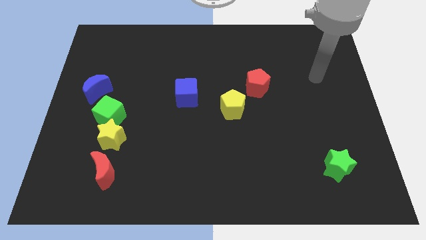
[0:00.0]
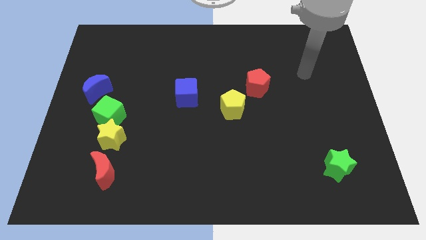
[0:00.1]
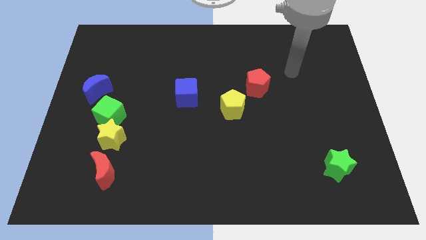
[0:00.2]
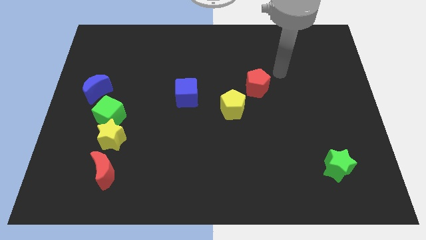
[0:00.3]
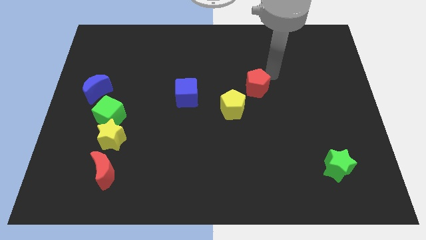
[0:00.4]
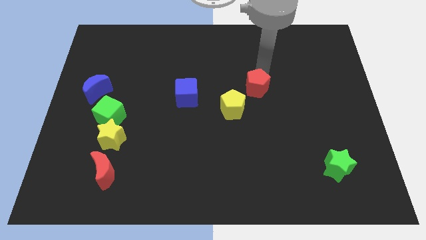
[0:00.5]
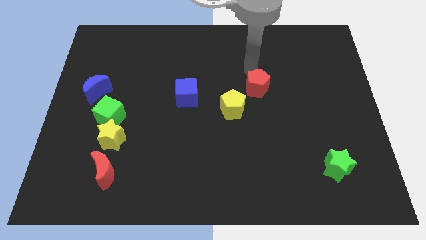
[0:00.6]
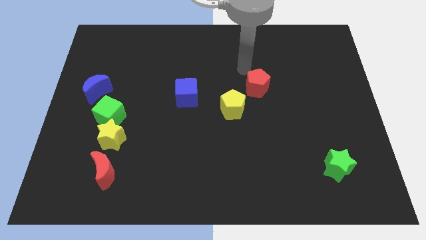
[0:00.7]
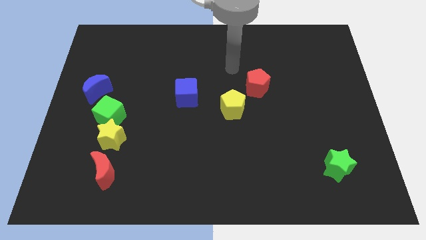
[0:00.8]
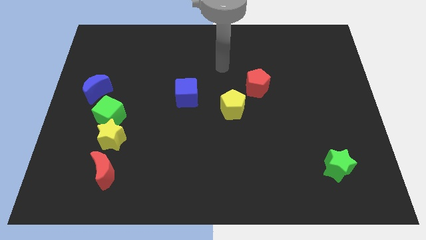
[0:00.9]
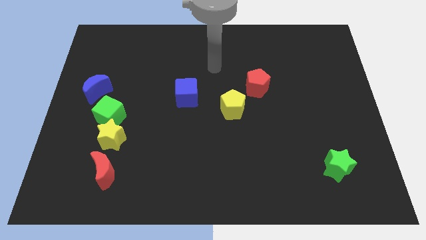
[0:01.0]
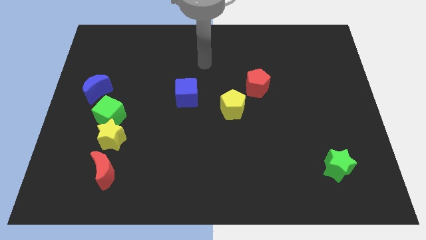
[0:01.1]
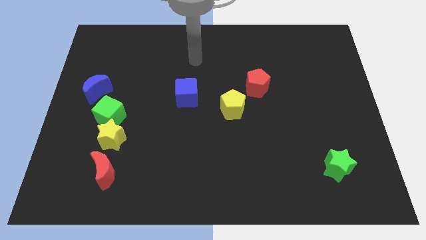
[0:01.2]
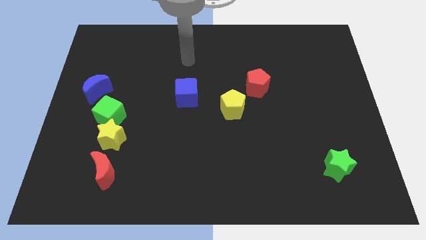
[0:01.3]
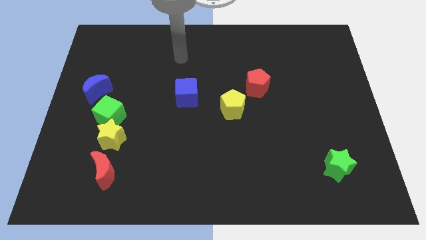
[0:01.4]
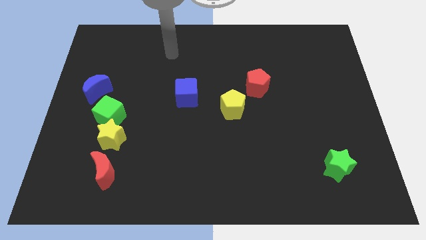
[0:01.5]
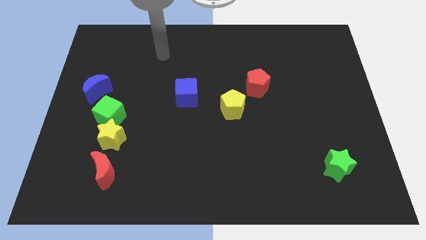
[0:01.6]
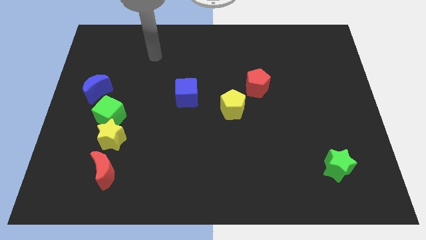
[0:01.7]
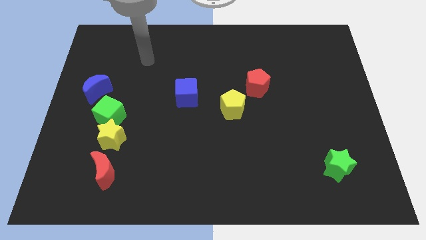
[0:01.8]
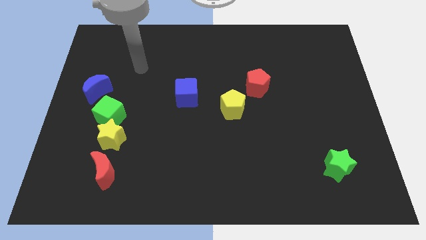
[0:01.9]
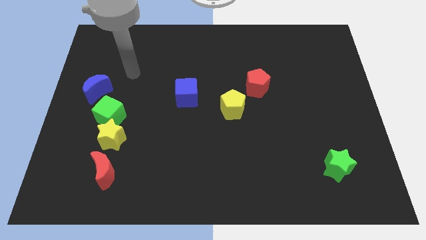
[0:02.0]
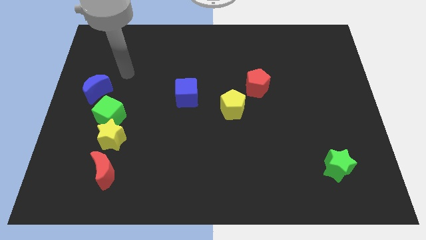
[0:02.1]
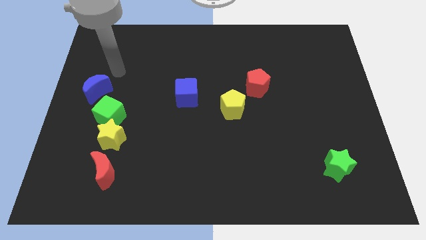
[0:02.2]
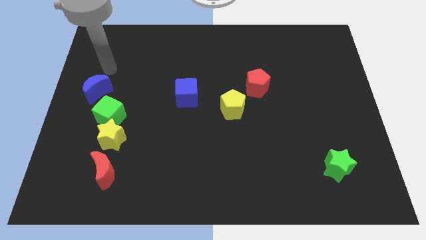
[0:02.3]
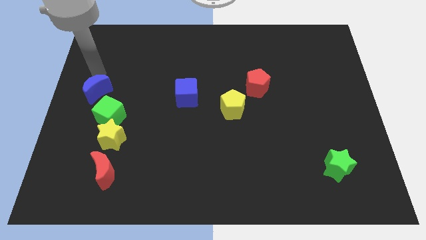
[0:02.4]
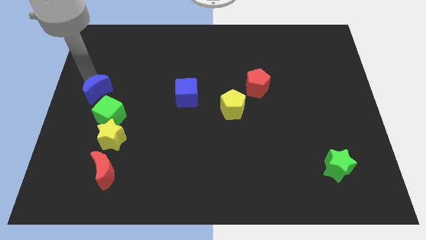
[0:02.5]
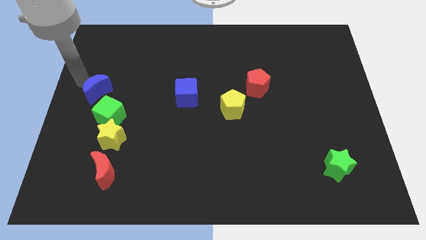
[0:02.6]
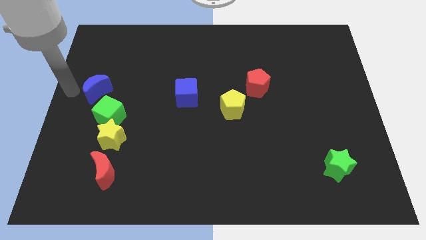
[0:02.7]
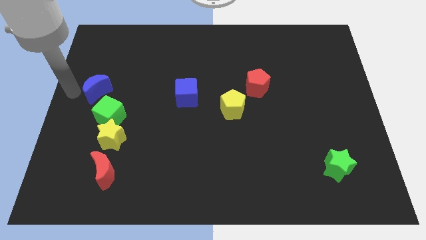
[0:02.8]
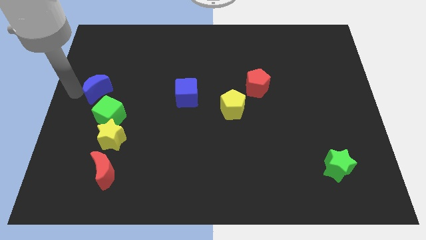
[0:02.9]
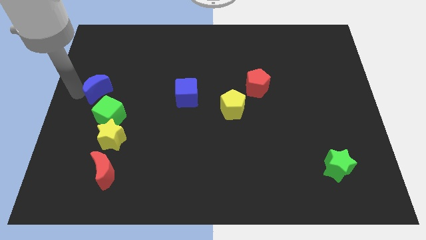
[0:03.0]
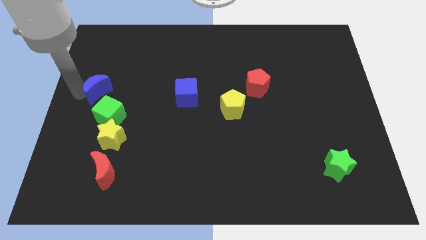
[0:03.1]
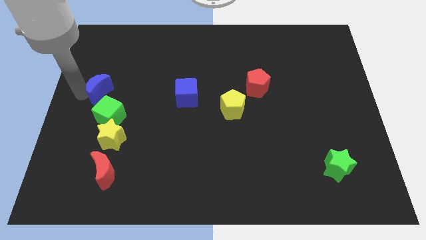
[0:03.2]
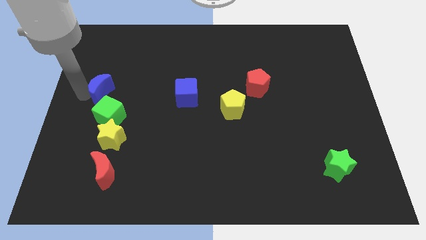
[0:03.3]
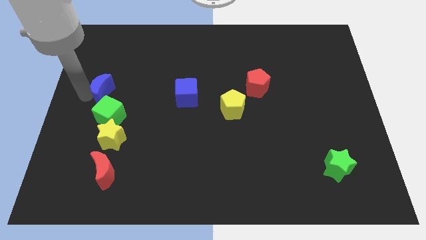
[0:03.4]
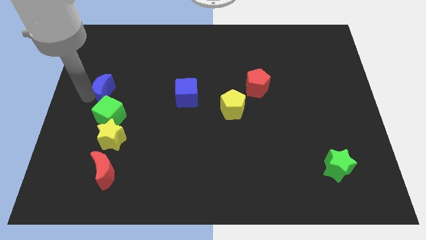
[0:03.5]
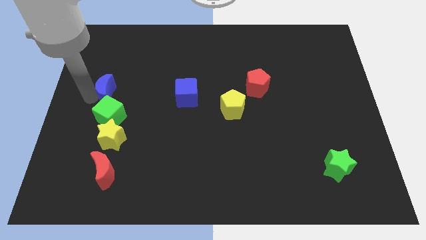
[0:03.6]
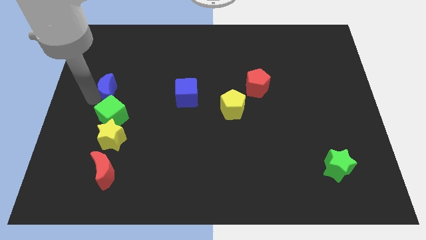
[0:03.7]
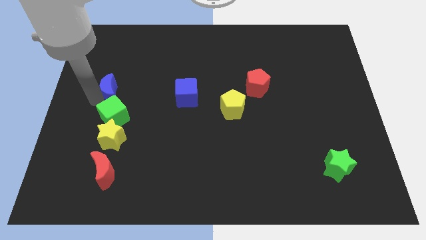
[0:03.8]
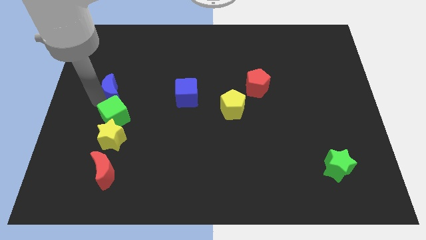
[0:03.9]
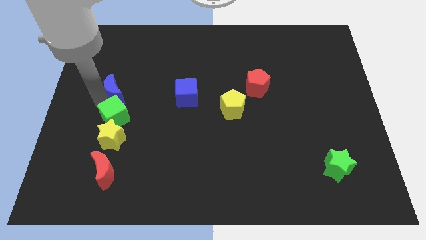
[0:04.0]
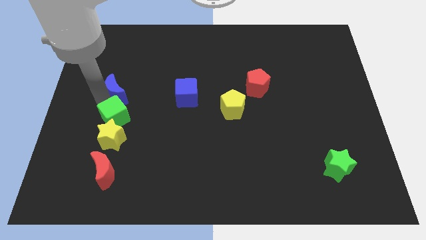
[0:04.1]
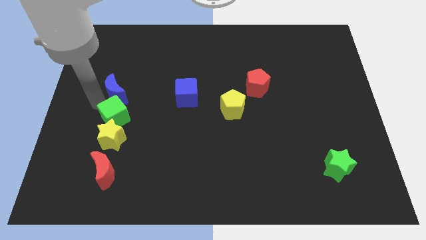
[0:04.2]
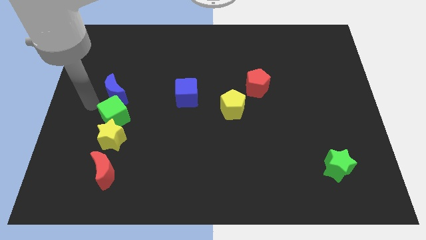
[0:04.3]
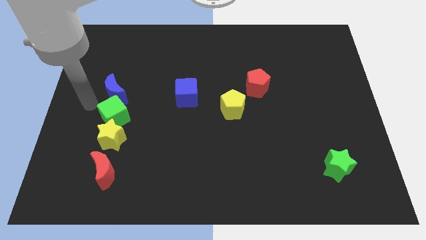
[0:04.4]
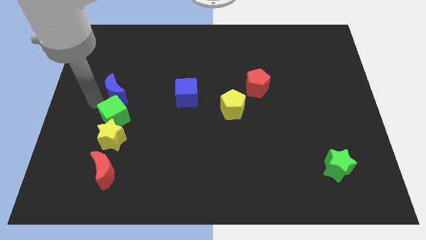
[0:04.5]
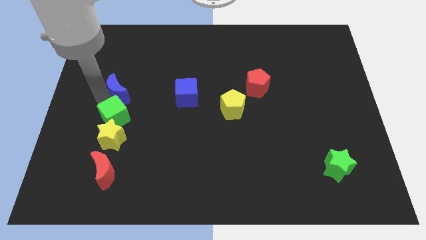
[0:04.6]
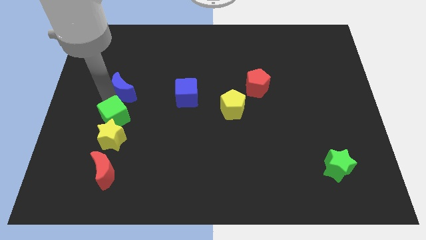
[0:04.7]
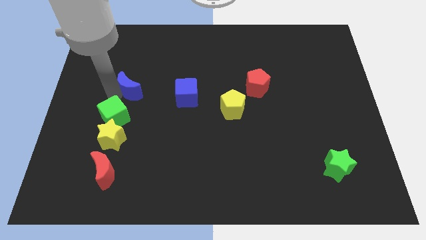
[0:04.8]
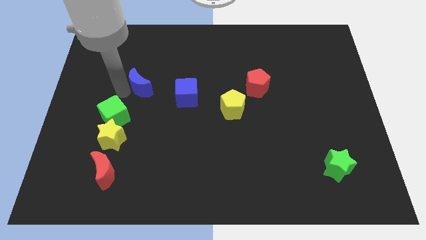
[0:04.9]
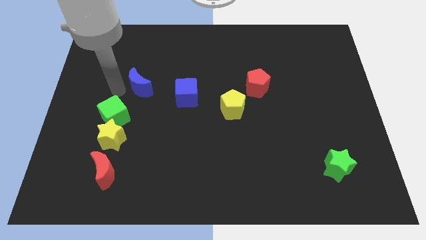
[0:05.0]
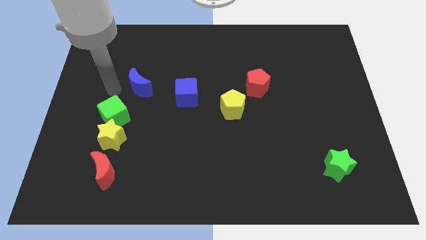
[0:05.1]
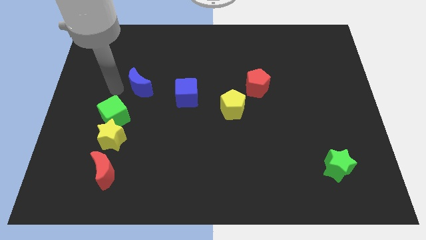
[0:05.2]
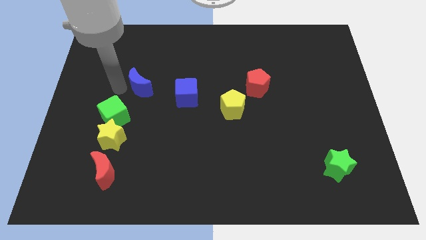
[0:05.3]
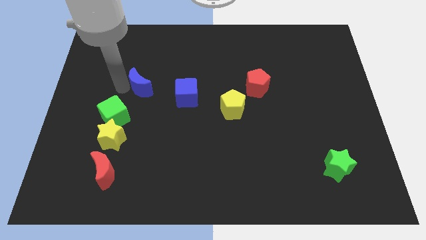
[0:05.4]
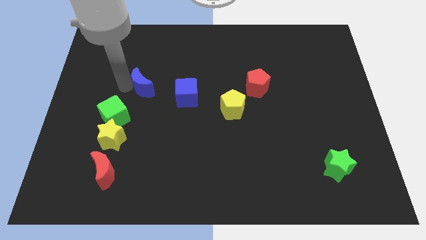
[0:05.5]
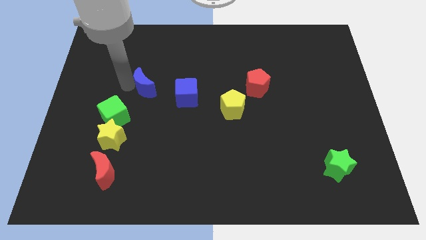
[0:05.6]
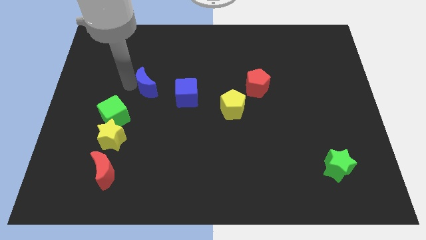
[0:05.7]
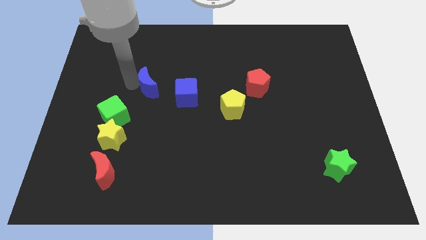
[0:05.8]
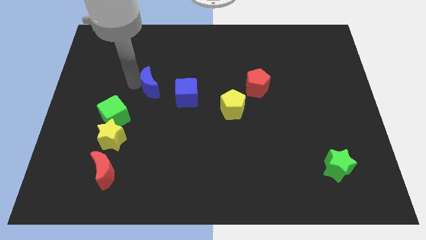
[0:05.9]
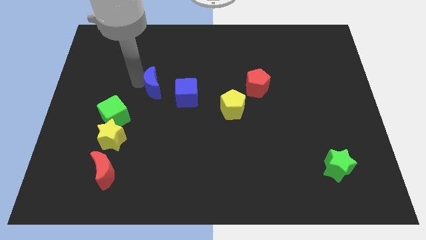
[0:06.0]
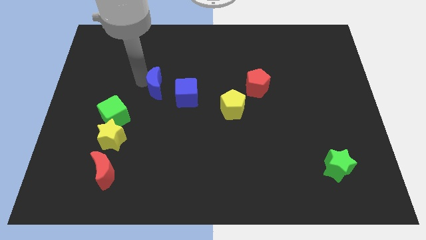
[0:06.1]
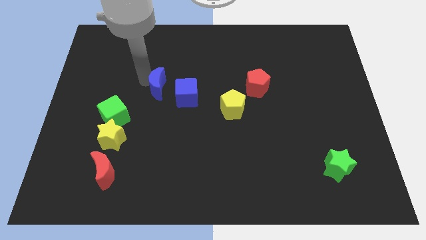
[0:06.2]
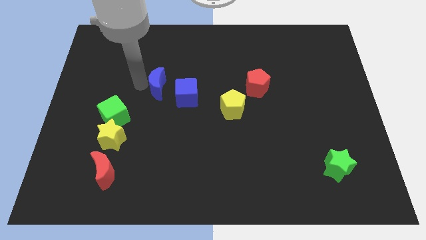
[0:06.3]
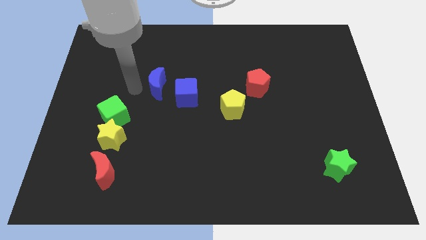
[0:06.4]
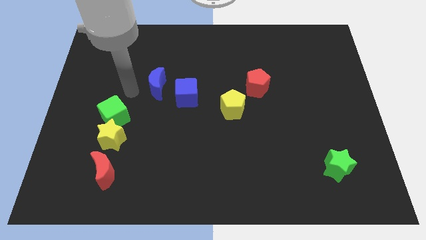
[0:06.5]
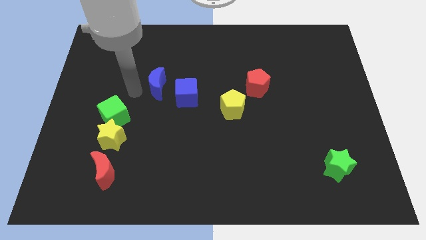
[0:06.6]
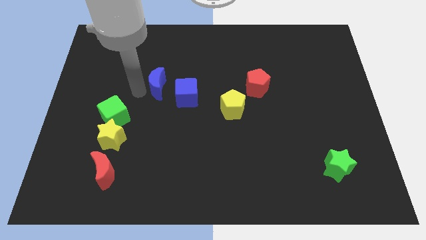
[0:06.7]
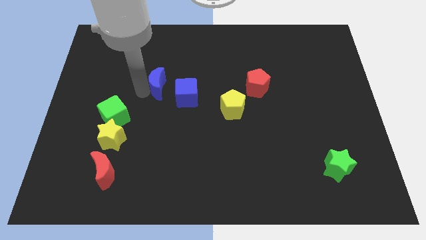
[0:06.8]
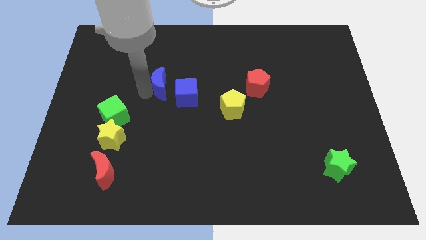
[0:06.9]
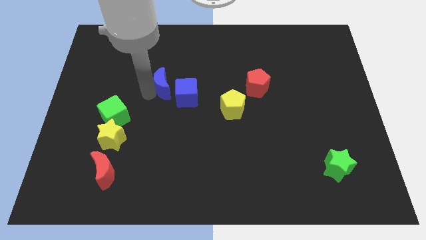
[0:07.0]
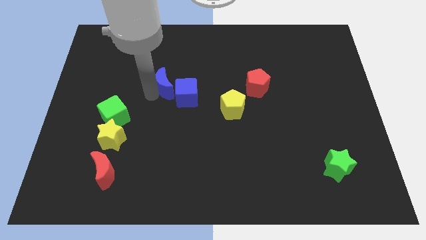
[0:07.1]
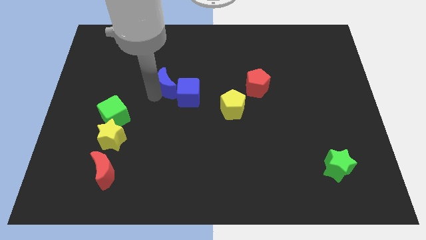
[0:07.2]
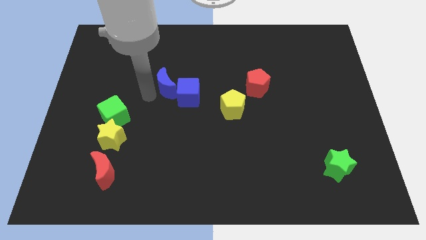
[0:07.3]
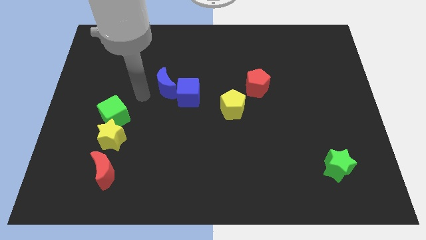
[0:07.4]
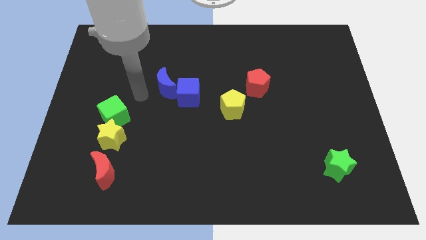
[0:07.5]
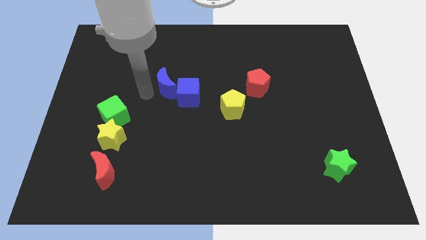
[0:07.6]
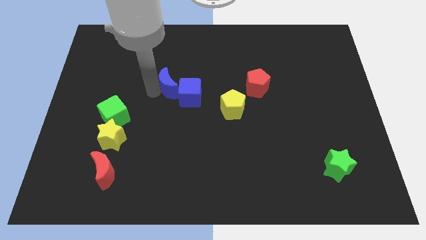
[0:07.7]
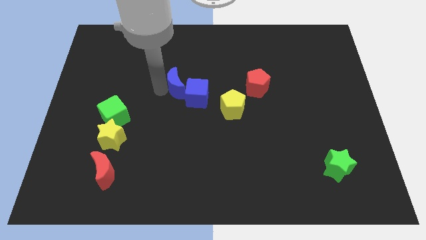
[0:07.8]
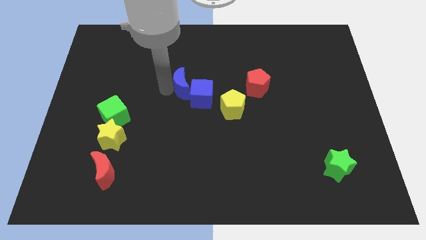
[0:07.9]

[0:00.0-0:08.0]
move the blue moon right
